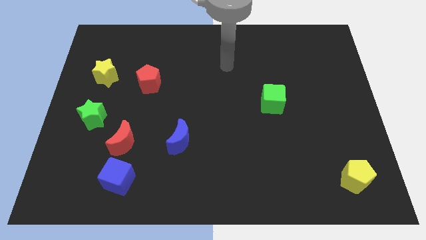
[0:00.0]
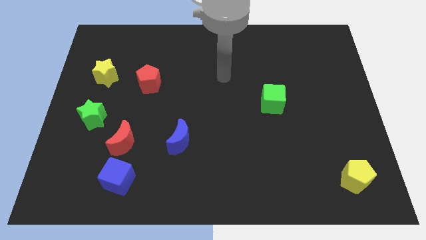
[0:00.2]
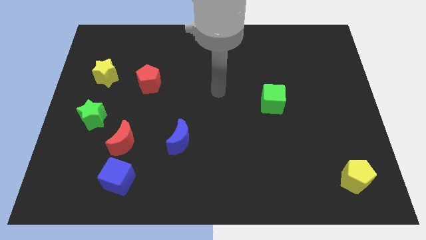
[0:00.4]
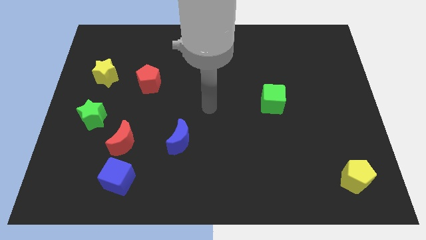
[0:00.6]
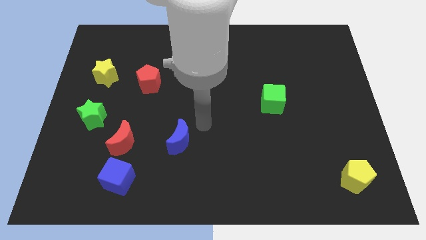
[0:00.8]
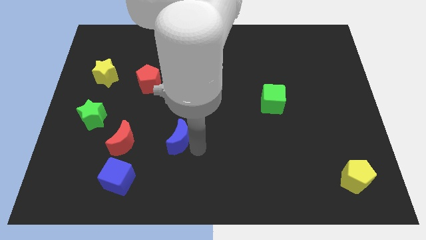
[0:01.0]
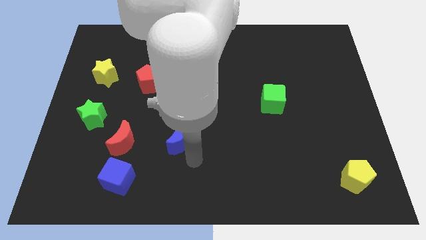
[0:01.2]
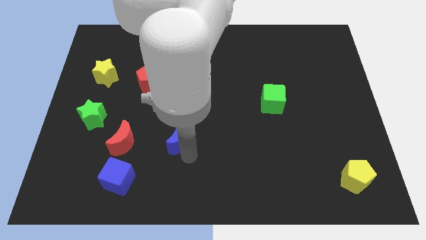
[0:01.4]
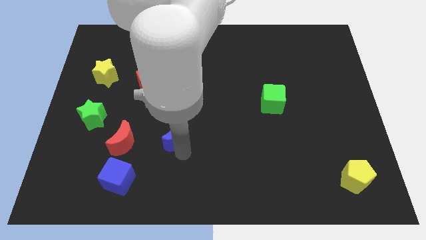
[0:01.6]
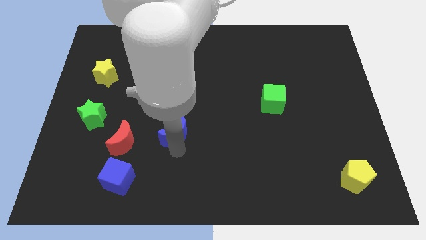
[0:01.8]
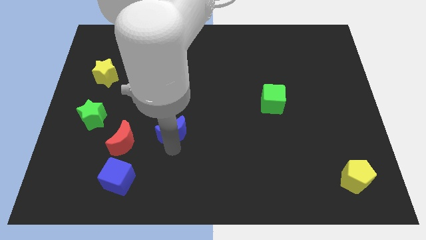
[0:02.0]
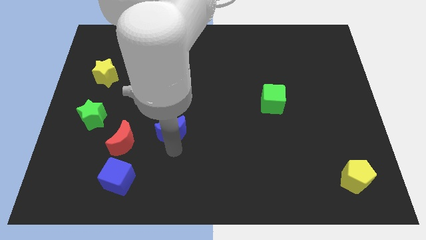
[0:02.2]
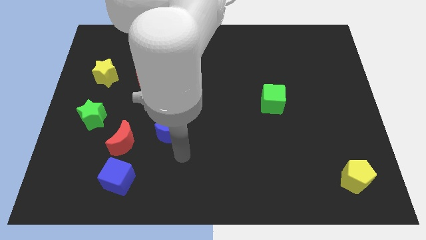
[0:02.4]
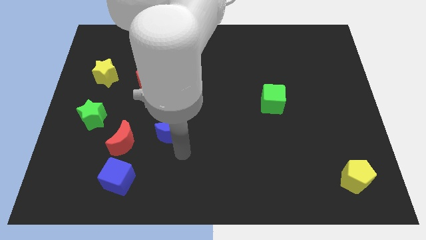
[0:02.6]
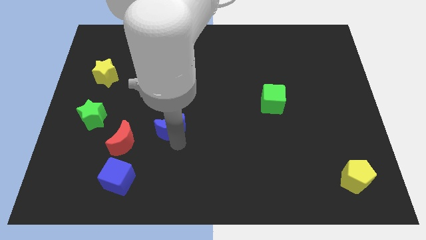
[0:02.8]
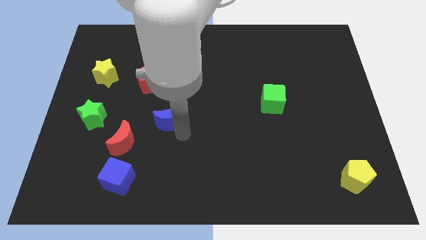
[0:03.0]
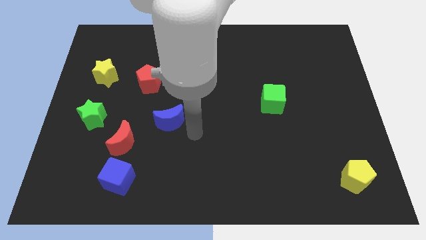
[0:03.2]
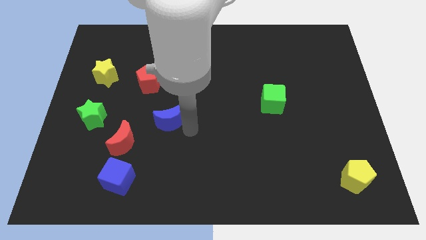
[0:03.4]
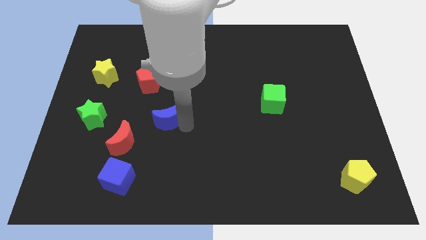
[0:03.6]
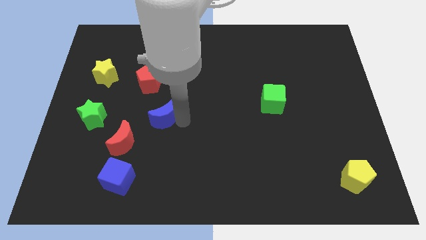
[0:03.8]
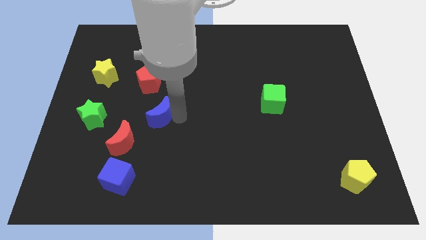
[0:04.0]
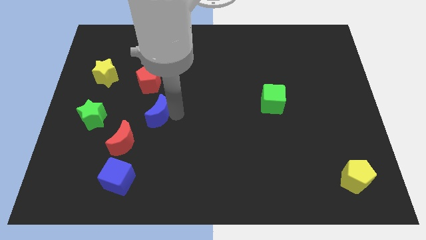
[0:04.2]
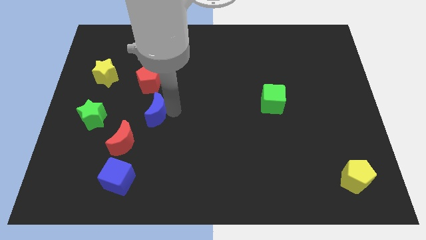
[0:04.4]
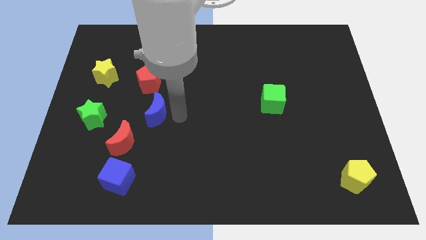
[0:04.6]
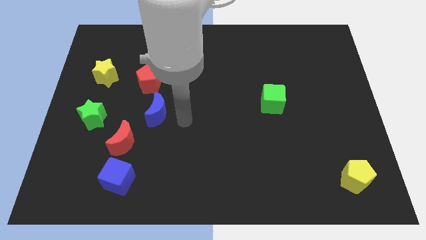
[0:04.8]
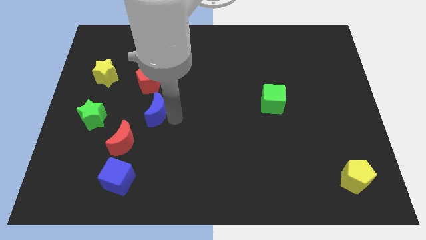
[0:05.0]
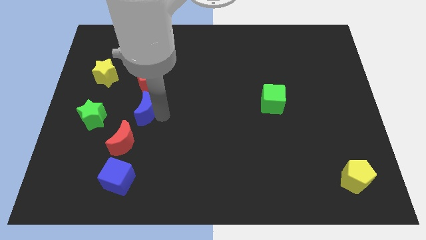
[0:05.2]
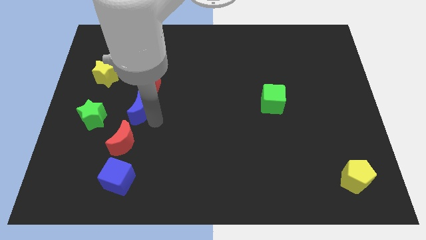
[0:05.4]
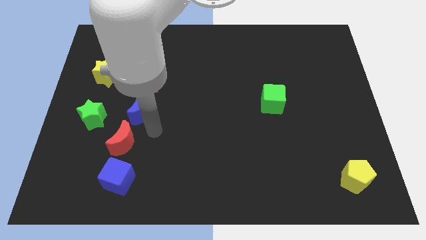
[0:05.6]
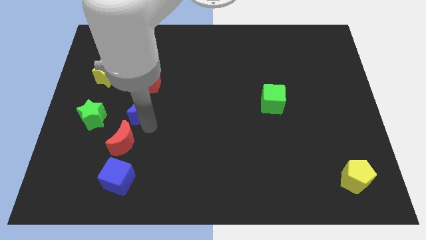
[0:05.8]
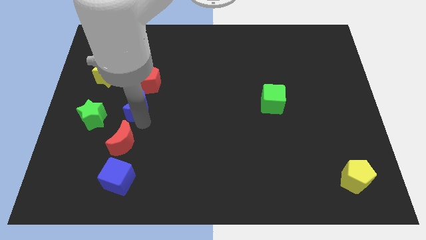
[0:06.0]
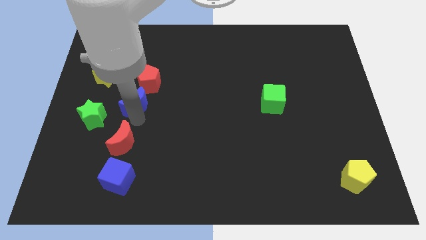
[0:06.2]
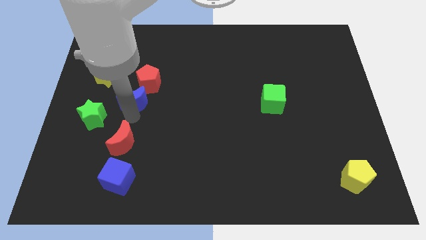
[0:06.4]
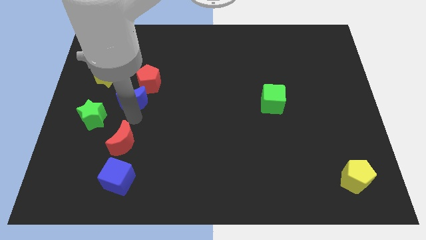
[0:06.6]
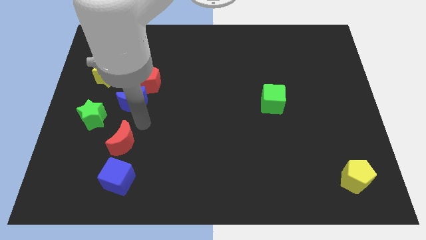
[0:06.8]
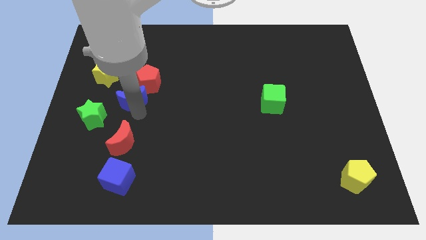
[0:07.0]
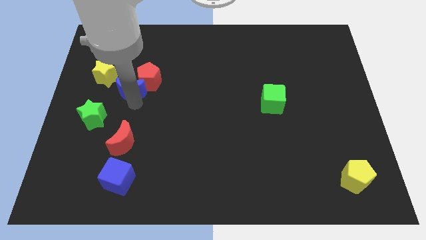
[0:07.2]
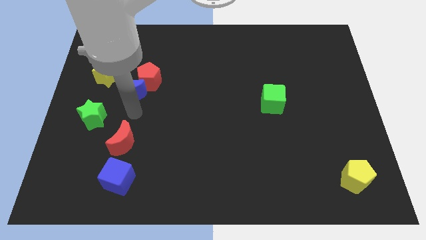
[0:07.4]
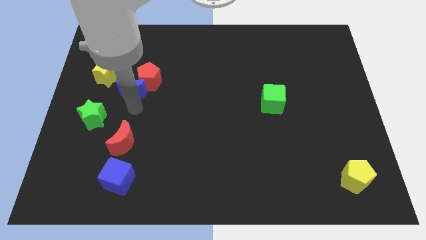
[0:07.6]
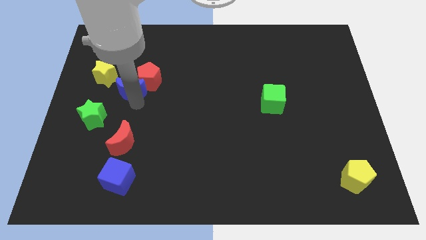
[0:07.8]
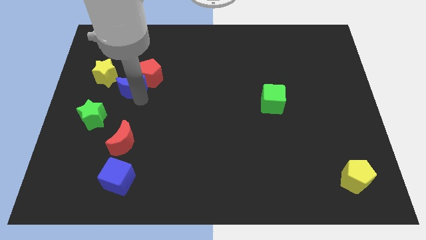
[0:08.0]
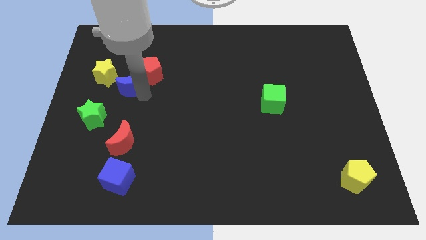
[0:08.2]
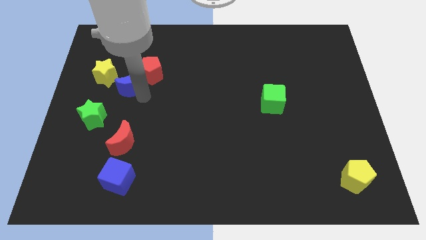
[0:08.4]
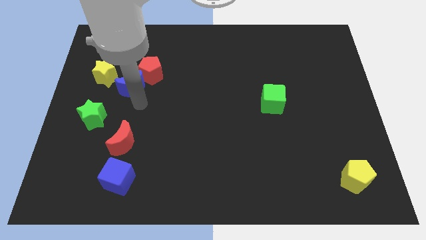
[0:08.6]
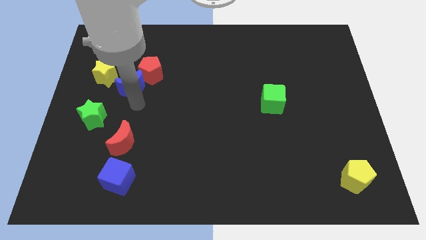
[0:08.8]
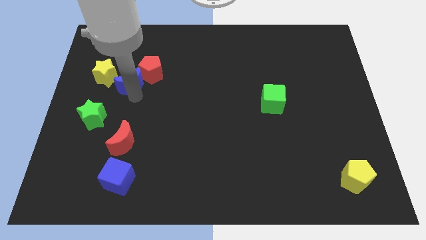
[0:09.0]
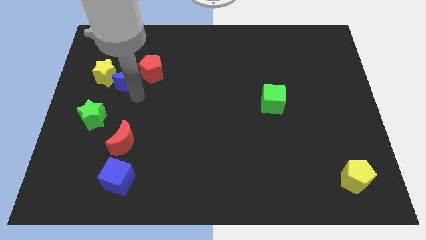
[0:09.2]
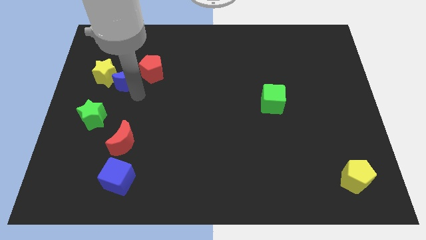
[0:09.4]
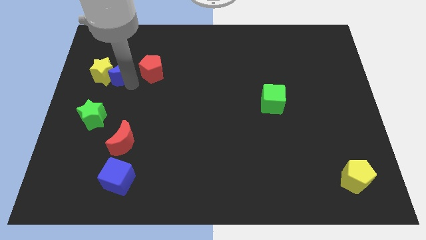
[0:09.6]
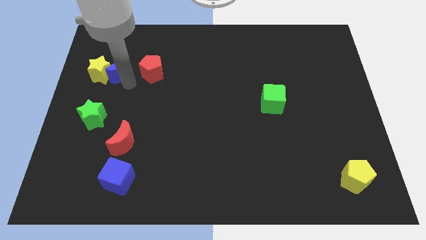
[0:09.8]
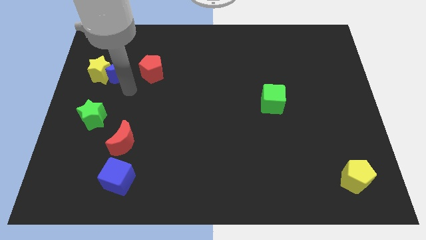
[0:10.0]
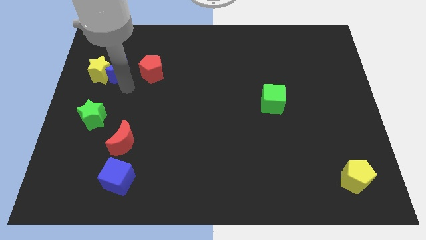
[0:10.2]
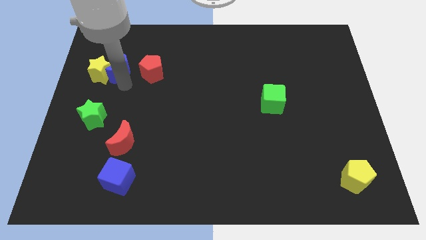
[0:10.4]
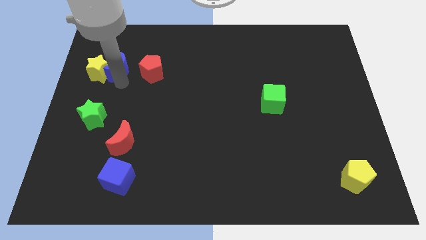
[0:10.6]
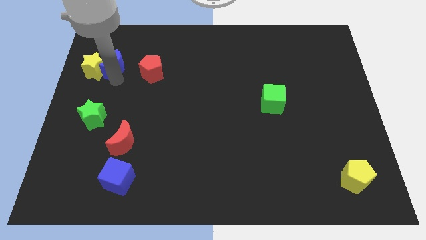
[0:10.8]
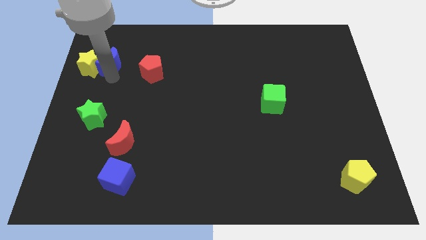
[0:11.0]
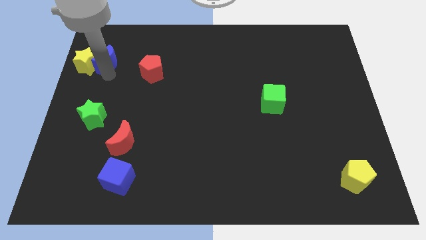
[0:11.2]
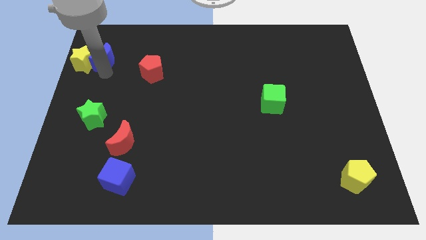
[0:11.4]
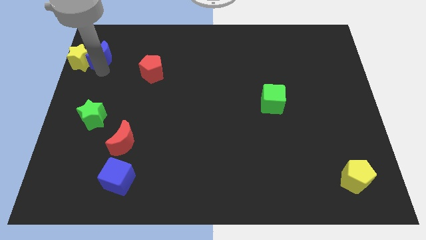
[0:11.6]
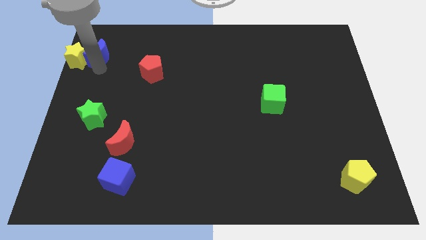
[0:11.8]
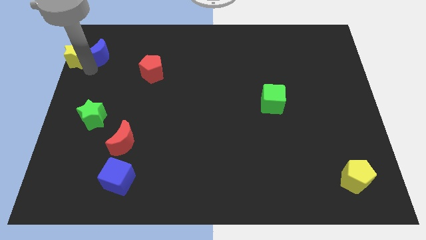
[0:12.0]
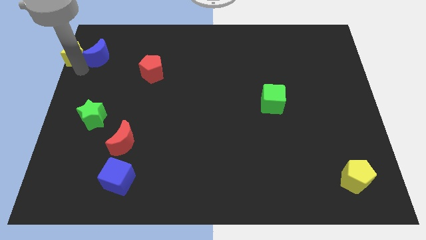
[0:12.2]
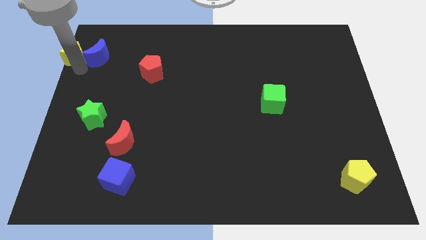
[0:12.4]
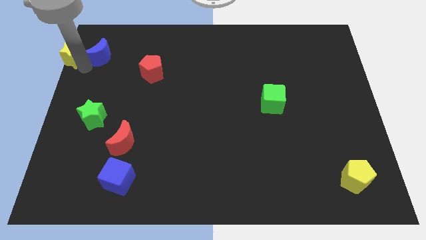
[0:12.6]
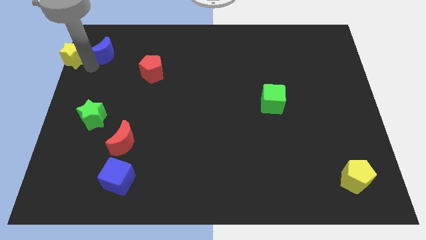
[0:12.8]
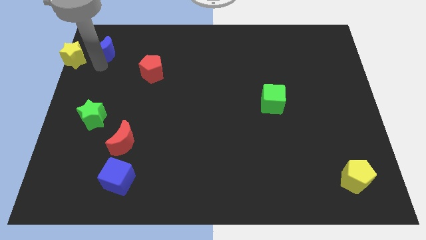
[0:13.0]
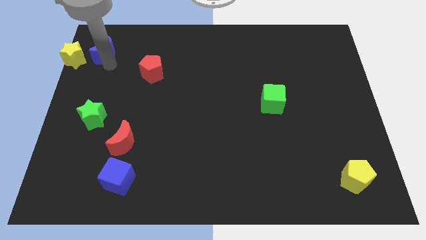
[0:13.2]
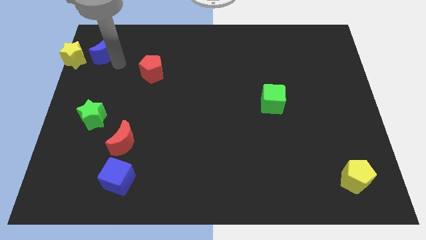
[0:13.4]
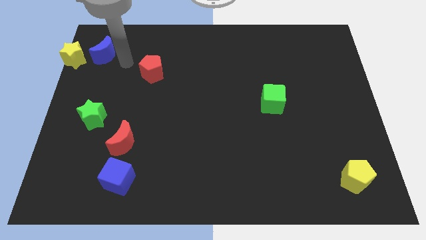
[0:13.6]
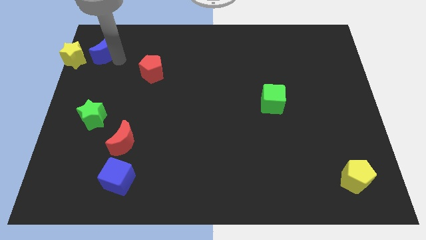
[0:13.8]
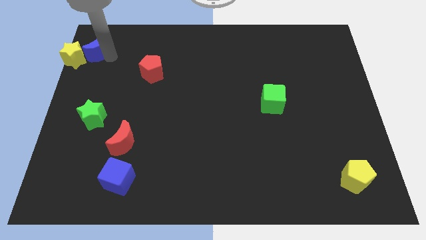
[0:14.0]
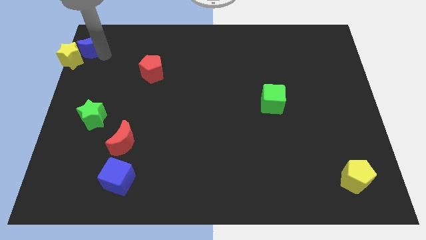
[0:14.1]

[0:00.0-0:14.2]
slide the blue moon to the top left
